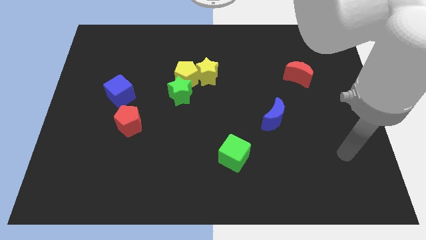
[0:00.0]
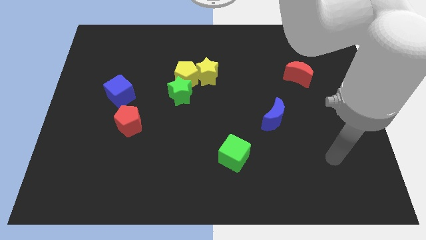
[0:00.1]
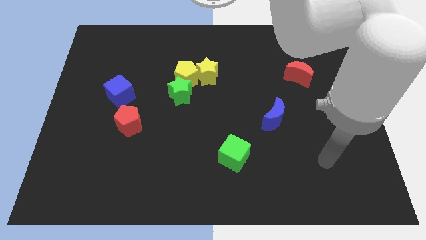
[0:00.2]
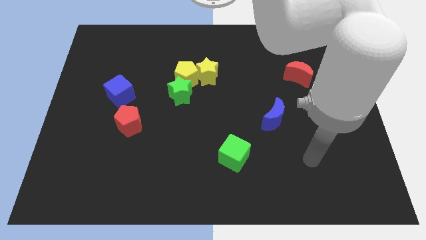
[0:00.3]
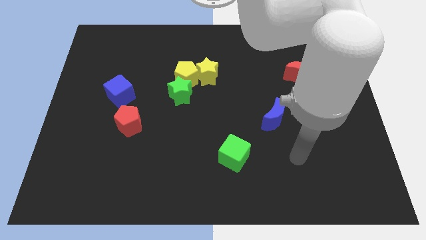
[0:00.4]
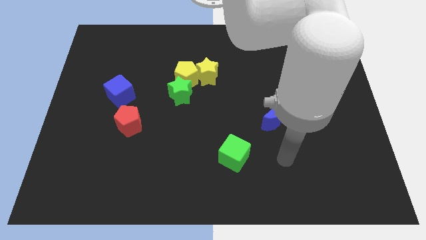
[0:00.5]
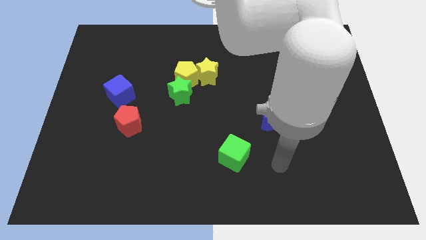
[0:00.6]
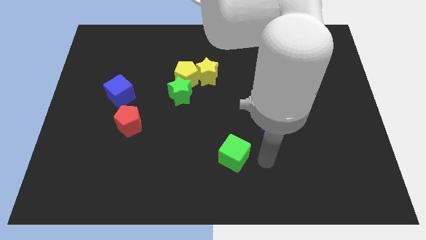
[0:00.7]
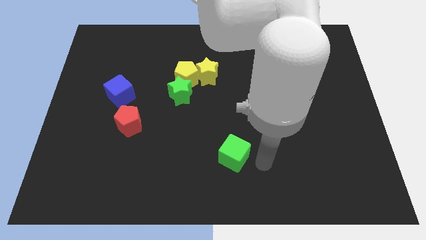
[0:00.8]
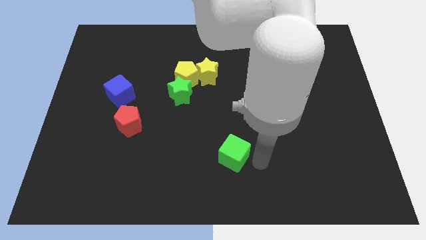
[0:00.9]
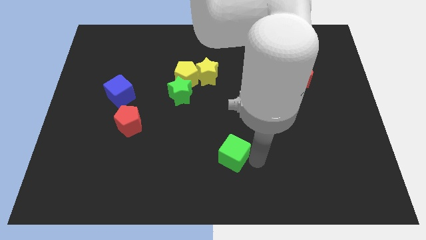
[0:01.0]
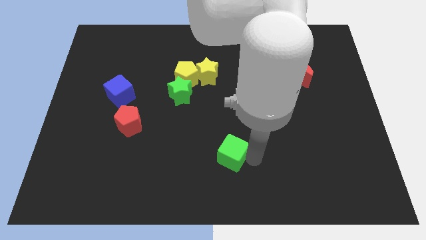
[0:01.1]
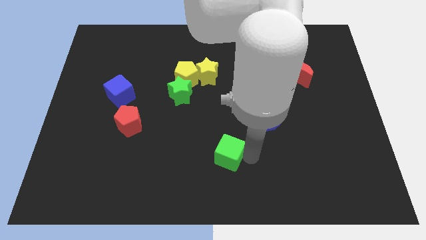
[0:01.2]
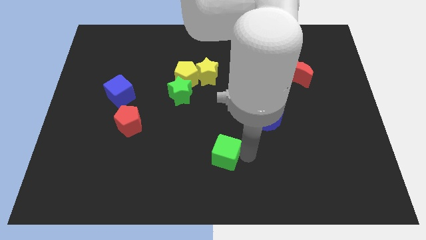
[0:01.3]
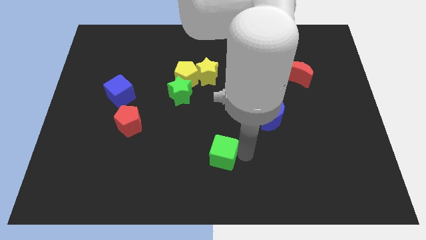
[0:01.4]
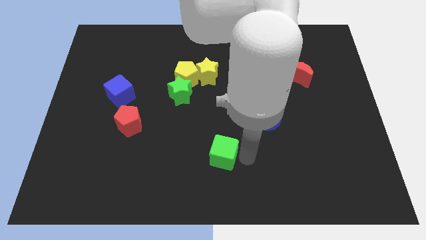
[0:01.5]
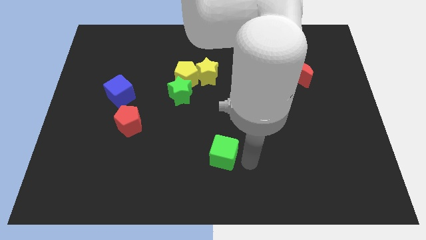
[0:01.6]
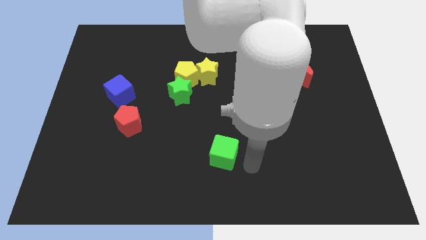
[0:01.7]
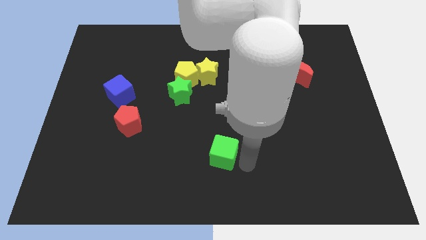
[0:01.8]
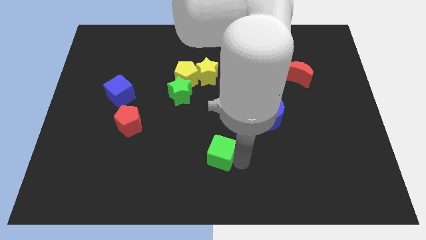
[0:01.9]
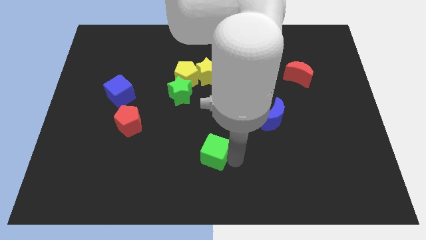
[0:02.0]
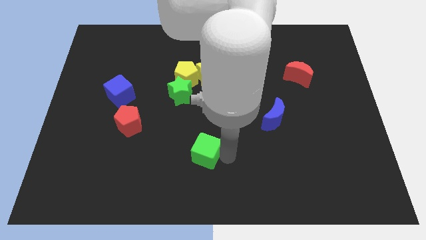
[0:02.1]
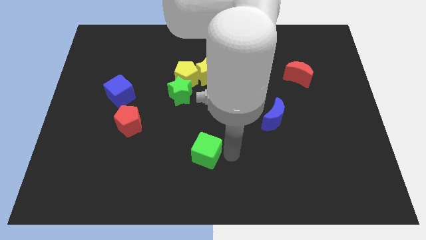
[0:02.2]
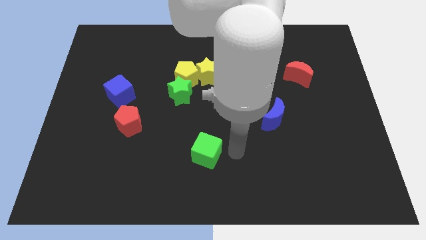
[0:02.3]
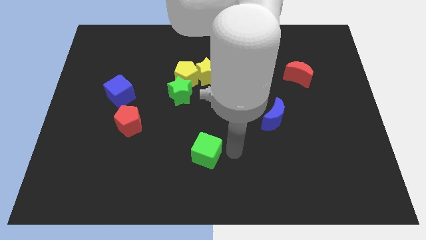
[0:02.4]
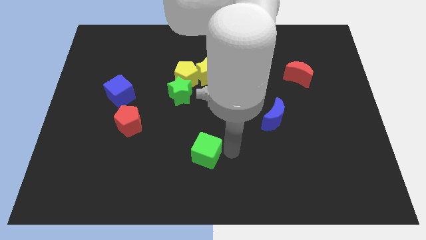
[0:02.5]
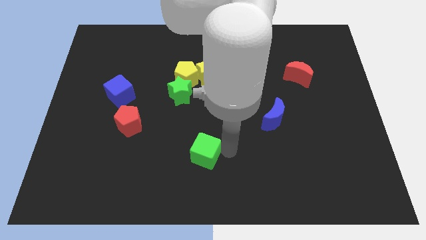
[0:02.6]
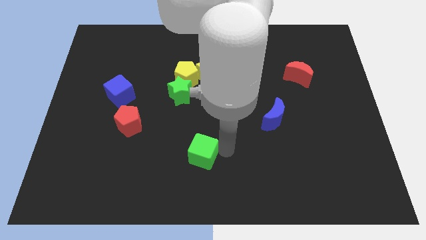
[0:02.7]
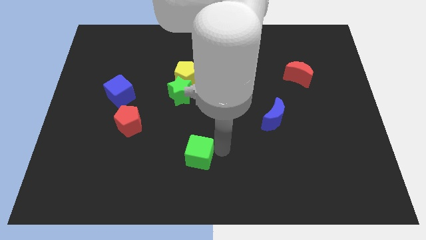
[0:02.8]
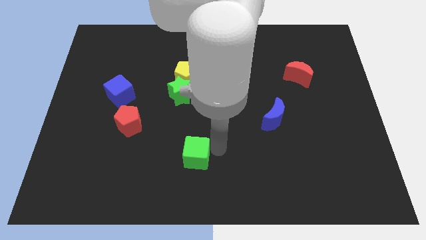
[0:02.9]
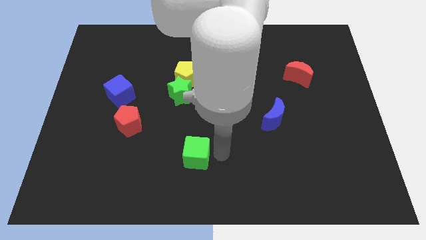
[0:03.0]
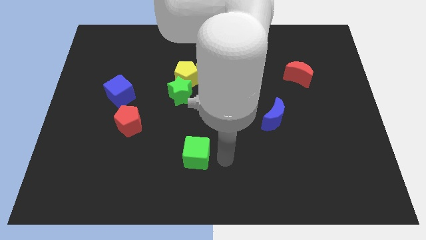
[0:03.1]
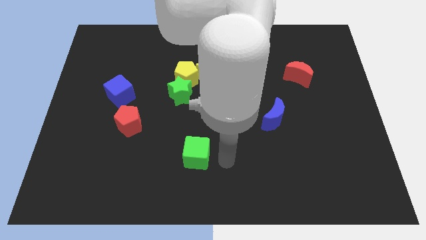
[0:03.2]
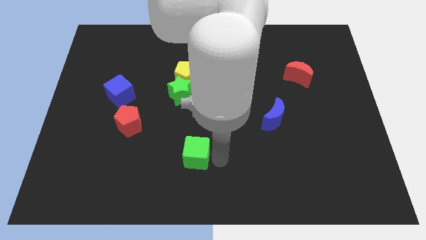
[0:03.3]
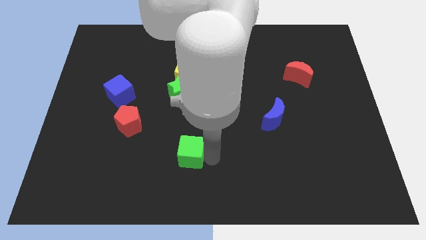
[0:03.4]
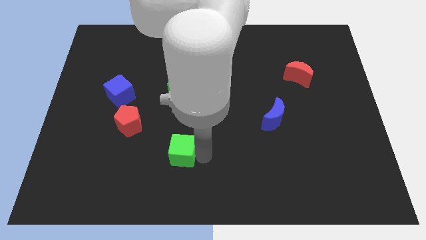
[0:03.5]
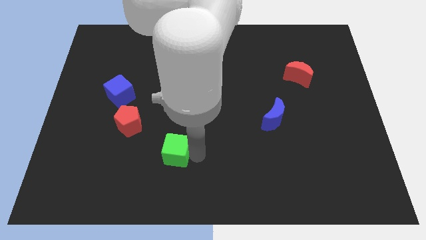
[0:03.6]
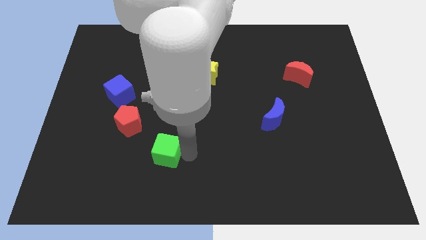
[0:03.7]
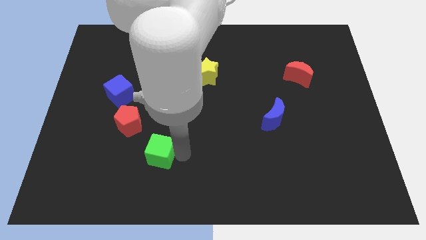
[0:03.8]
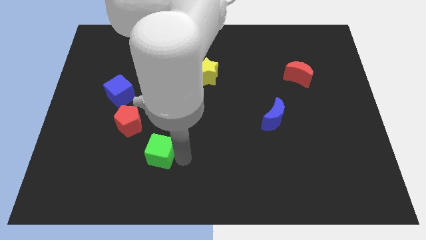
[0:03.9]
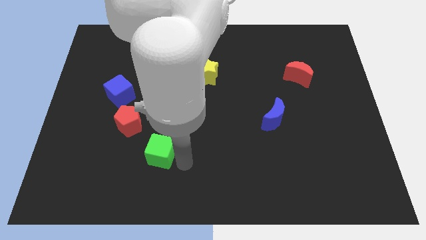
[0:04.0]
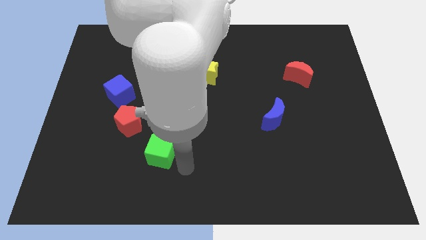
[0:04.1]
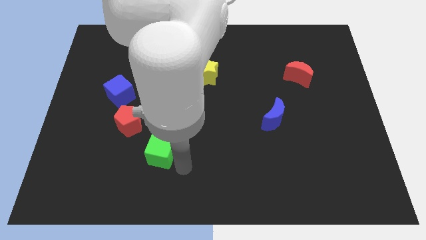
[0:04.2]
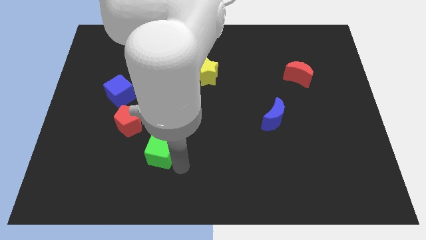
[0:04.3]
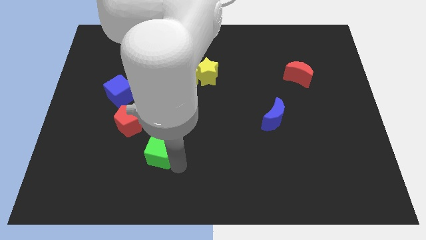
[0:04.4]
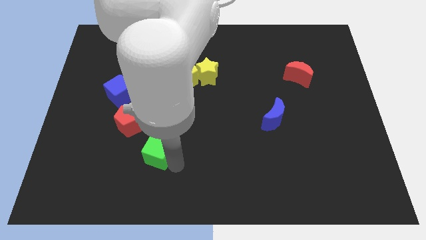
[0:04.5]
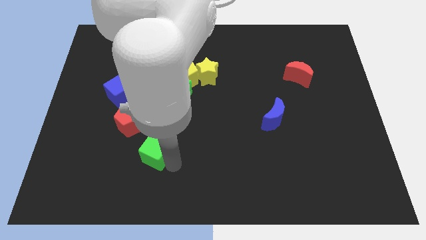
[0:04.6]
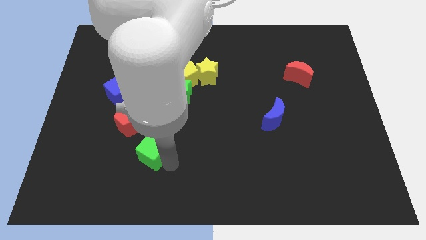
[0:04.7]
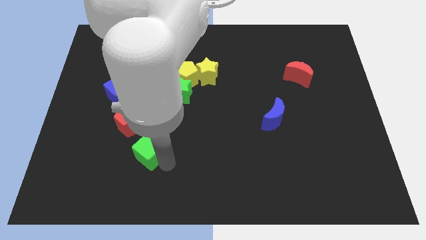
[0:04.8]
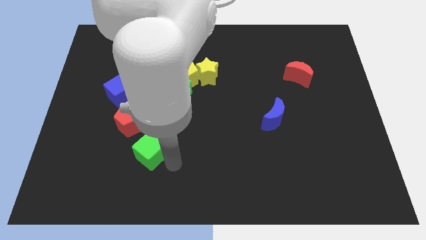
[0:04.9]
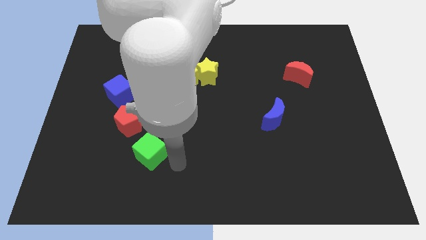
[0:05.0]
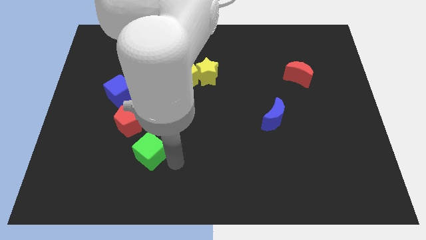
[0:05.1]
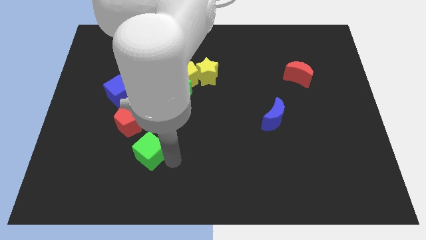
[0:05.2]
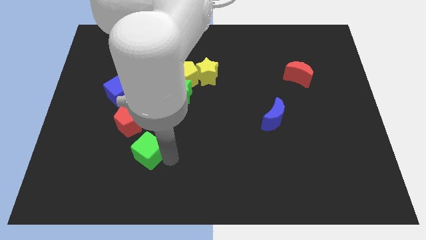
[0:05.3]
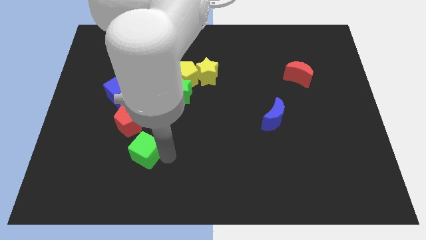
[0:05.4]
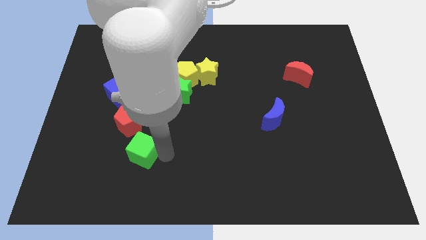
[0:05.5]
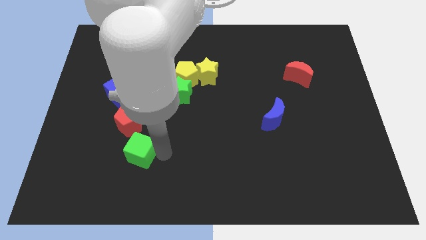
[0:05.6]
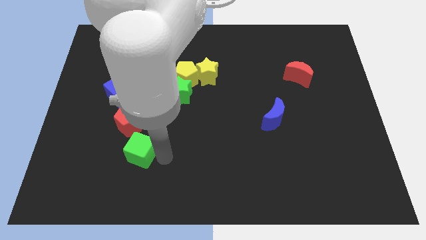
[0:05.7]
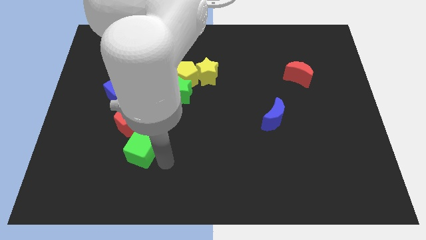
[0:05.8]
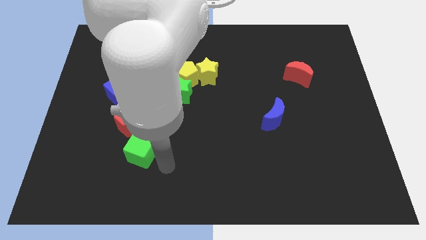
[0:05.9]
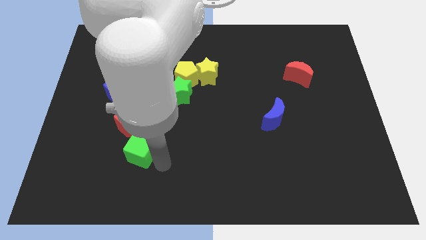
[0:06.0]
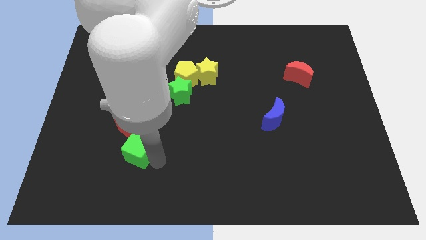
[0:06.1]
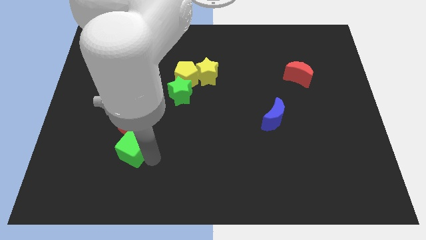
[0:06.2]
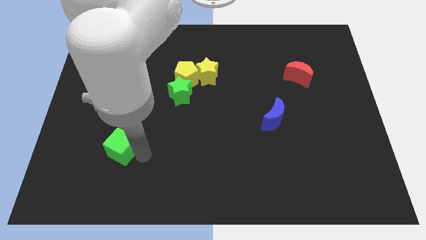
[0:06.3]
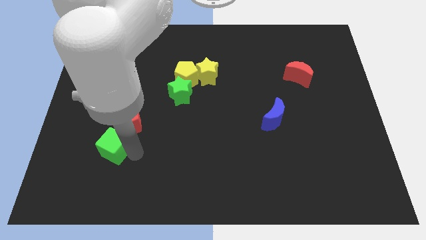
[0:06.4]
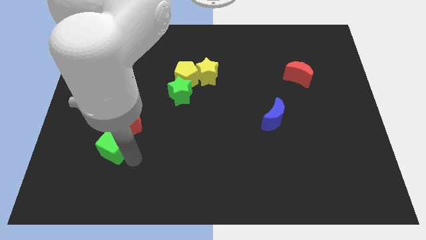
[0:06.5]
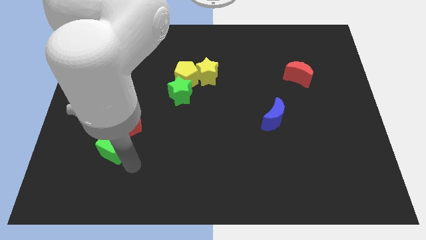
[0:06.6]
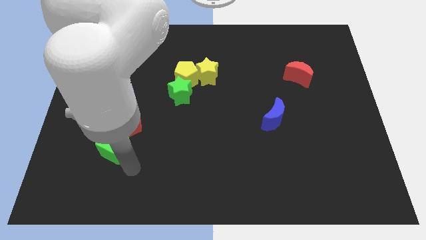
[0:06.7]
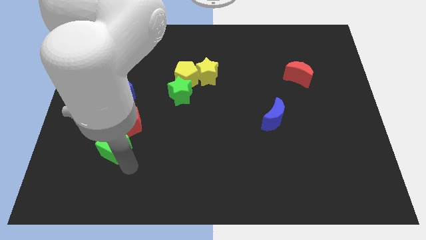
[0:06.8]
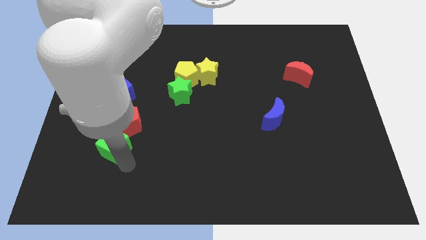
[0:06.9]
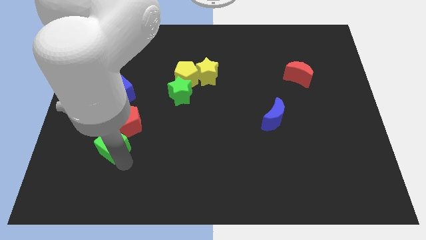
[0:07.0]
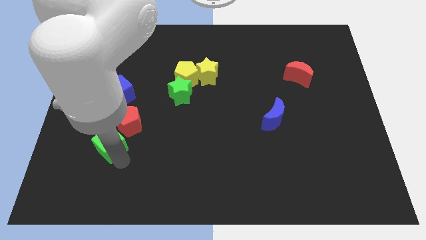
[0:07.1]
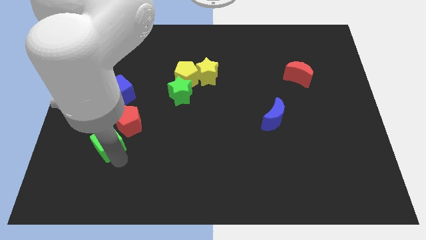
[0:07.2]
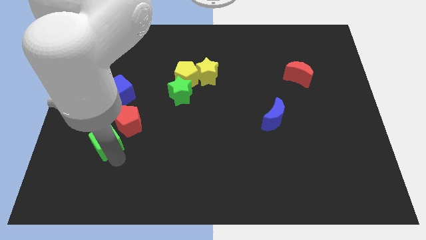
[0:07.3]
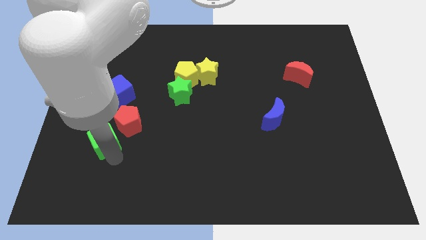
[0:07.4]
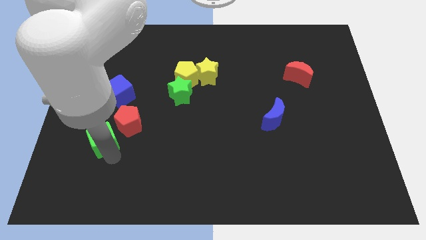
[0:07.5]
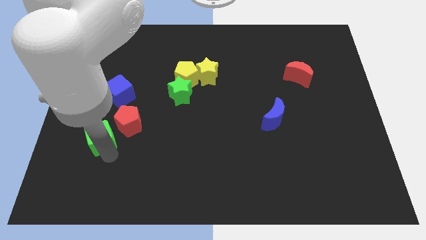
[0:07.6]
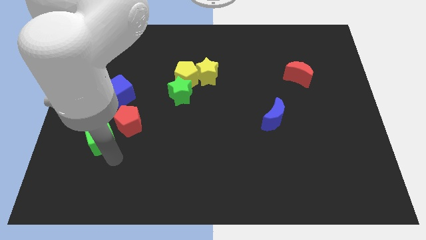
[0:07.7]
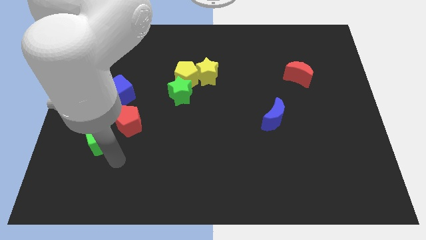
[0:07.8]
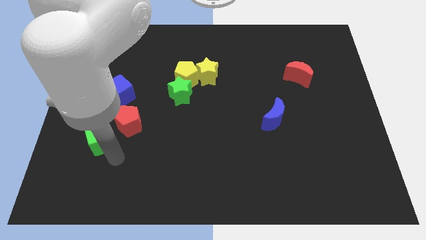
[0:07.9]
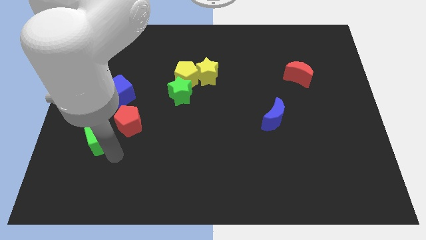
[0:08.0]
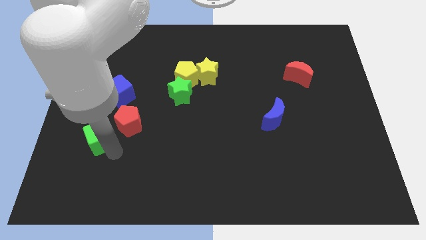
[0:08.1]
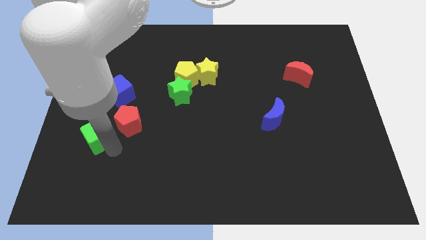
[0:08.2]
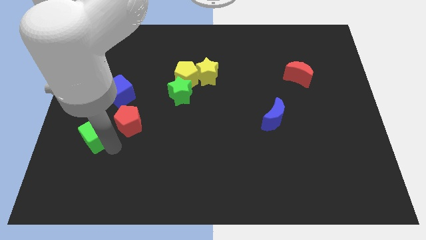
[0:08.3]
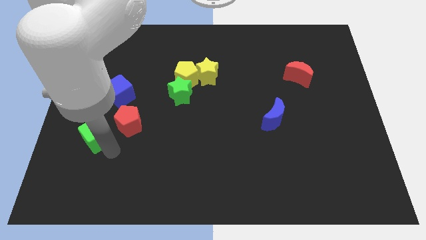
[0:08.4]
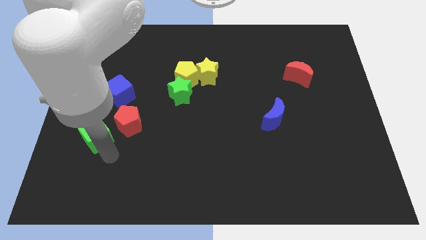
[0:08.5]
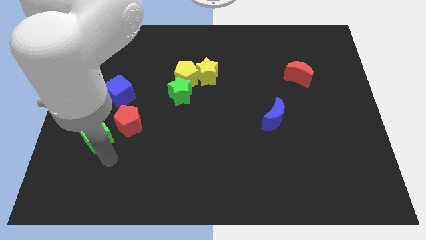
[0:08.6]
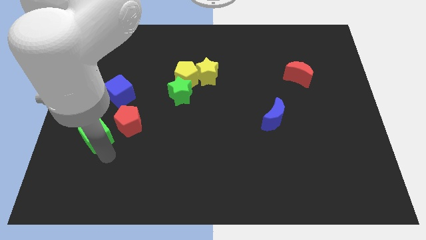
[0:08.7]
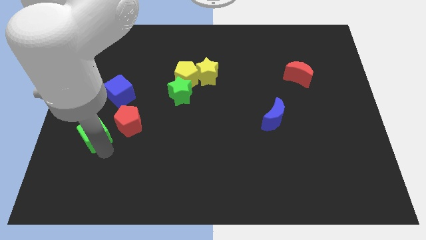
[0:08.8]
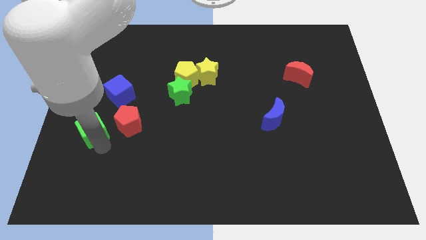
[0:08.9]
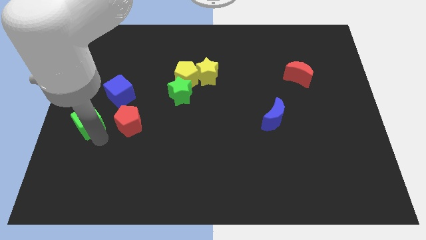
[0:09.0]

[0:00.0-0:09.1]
move the green cube to the left side of the board
